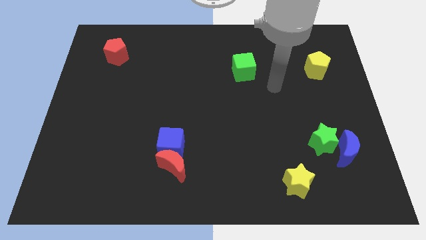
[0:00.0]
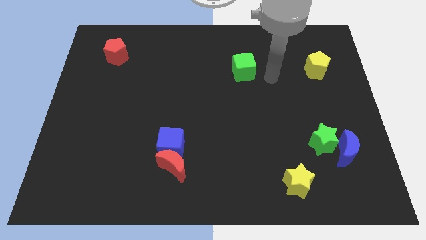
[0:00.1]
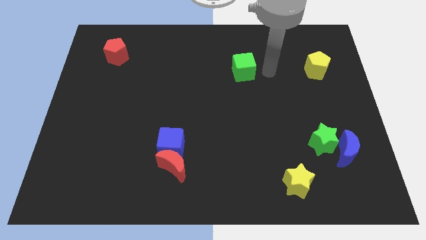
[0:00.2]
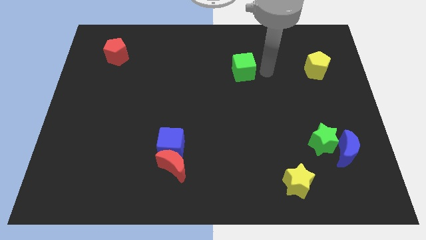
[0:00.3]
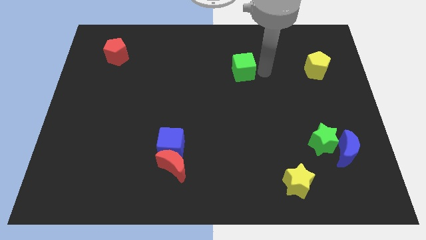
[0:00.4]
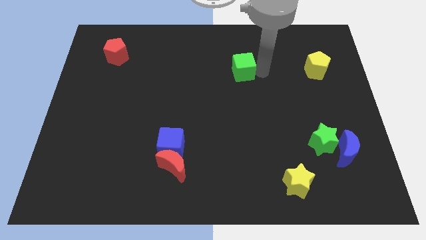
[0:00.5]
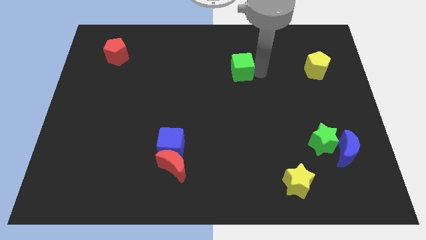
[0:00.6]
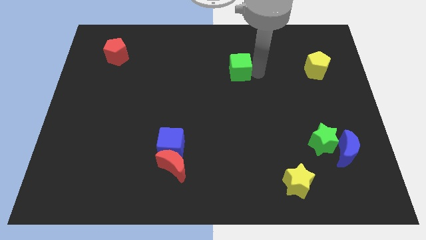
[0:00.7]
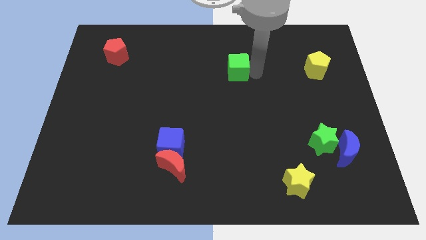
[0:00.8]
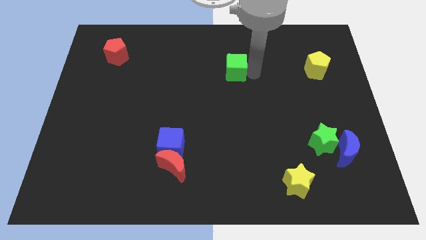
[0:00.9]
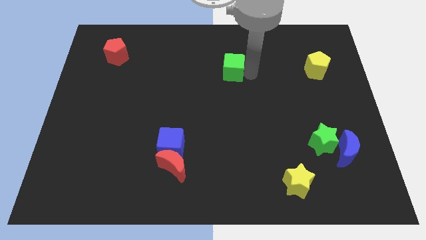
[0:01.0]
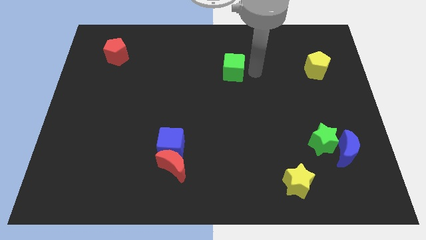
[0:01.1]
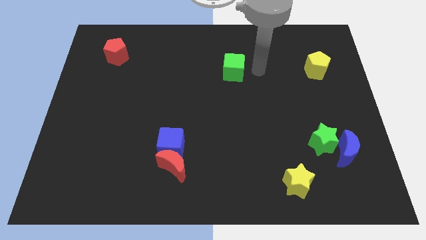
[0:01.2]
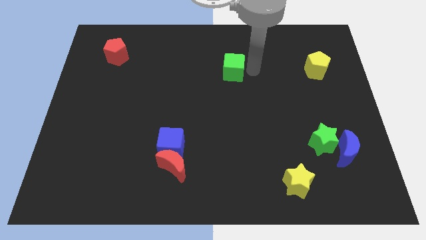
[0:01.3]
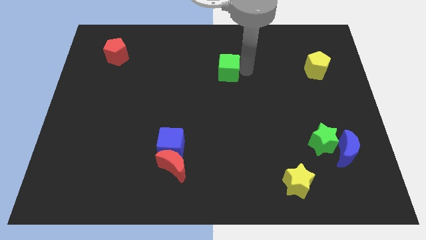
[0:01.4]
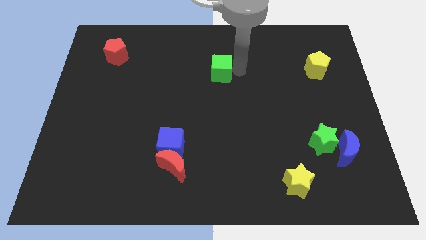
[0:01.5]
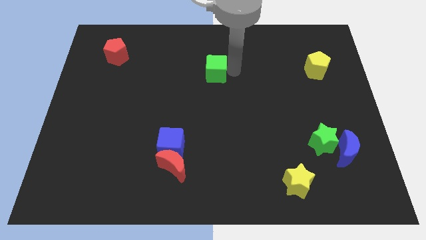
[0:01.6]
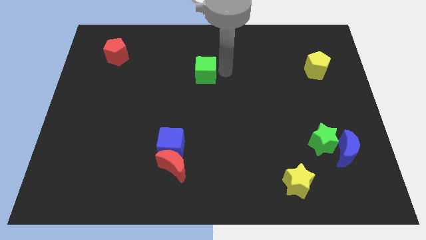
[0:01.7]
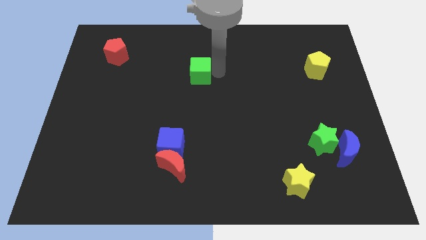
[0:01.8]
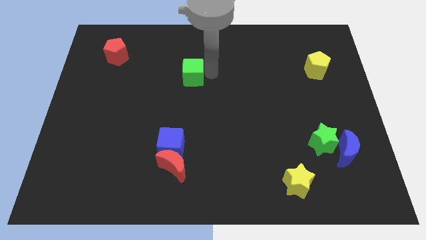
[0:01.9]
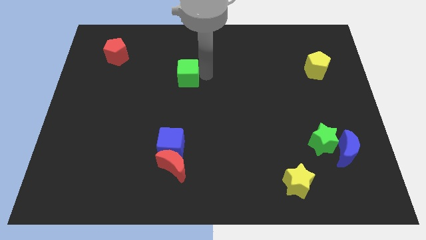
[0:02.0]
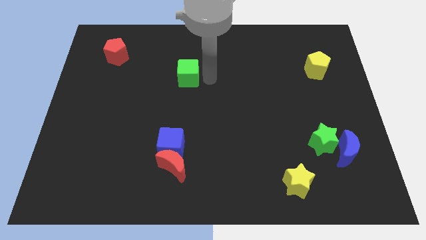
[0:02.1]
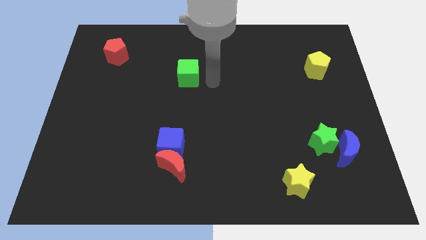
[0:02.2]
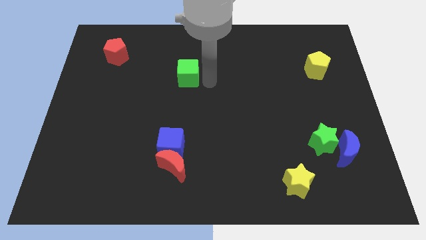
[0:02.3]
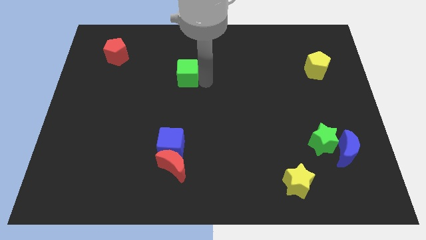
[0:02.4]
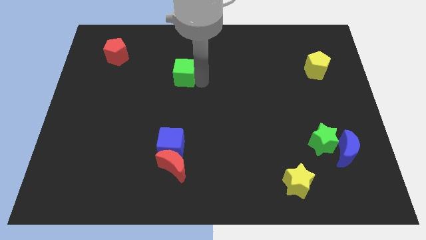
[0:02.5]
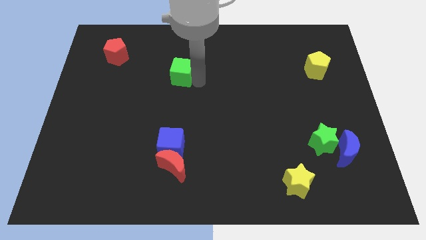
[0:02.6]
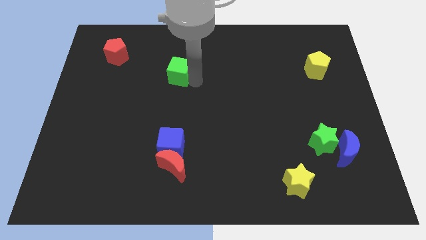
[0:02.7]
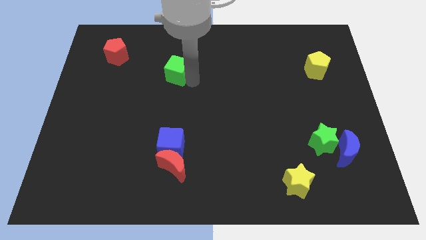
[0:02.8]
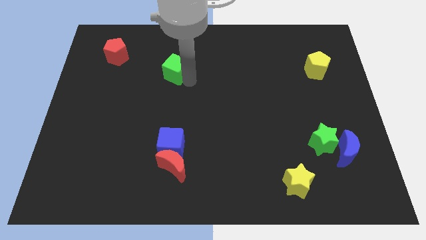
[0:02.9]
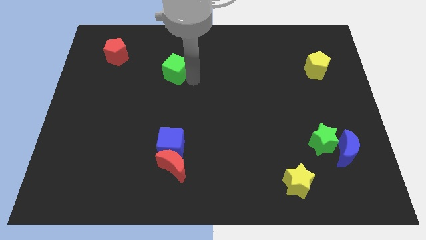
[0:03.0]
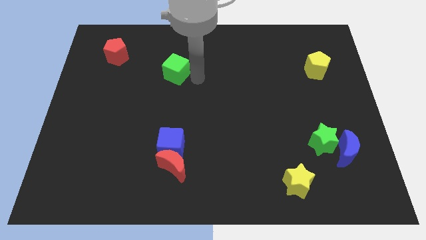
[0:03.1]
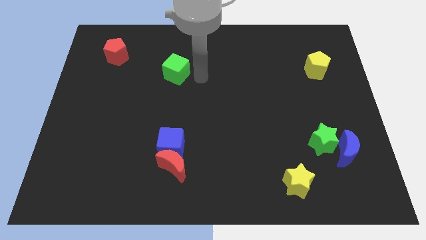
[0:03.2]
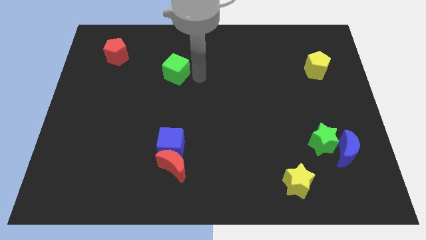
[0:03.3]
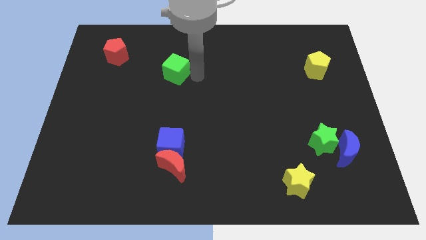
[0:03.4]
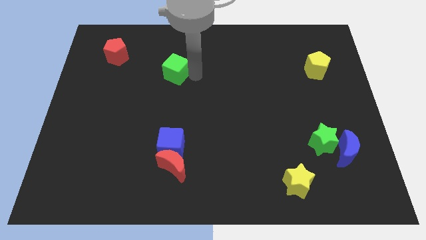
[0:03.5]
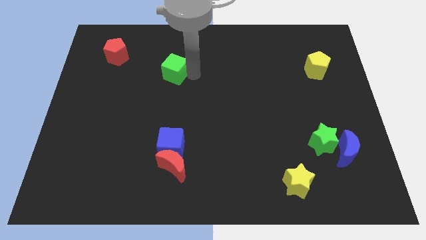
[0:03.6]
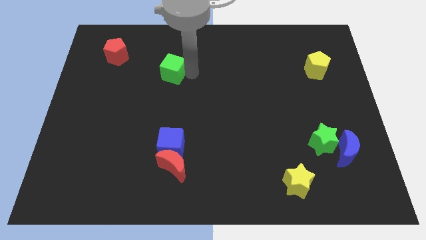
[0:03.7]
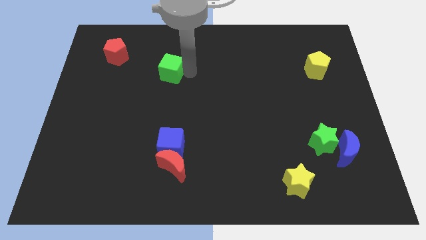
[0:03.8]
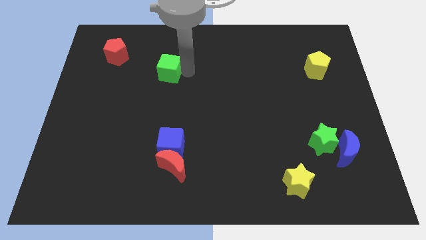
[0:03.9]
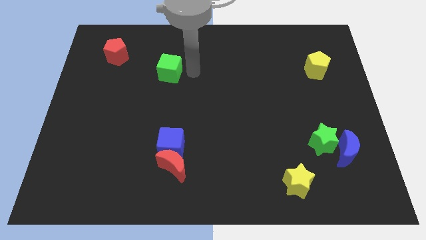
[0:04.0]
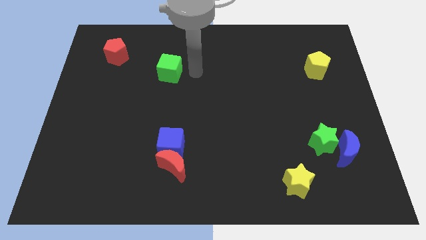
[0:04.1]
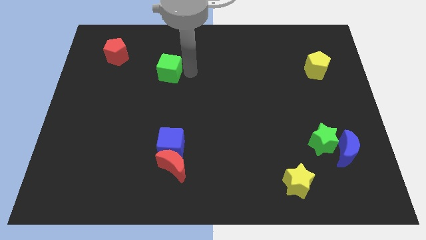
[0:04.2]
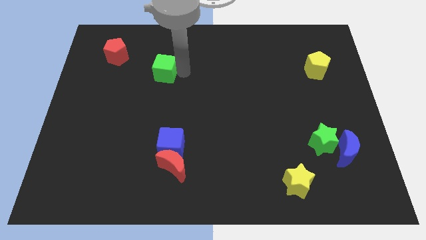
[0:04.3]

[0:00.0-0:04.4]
slide the green cube to the left

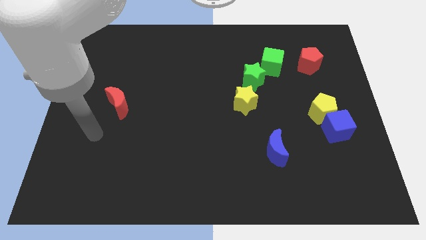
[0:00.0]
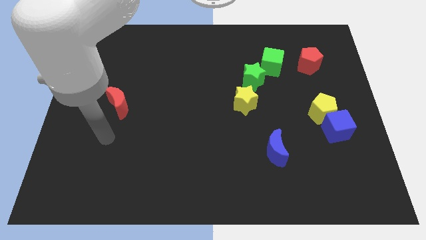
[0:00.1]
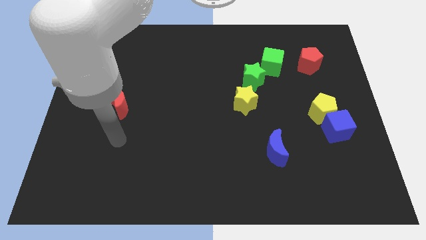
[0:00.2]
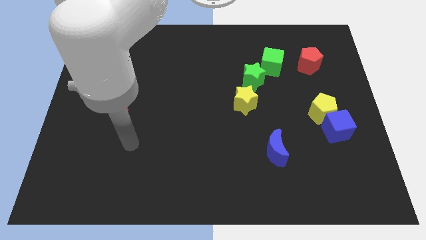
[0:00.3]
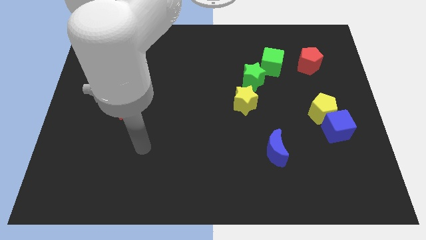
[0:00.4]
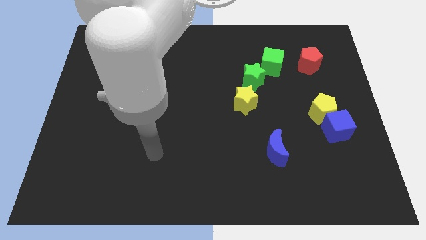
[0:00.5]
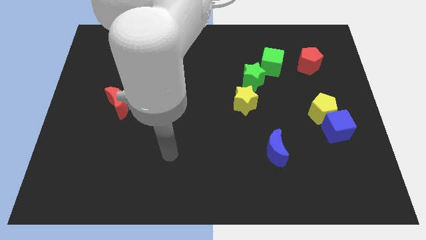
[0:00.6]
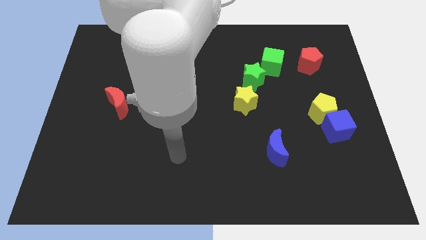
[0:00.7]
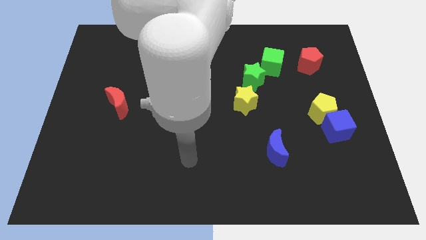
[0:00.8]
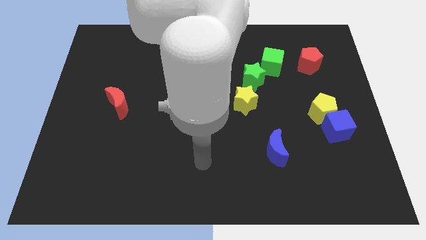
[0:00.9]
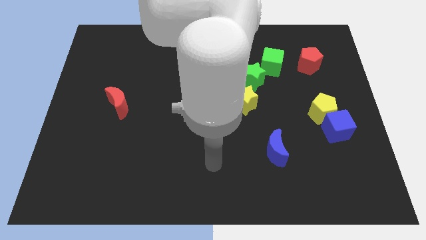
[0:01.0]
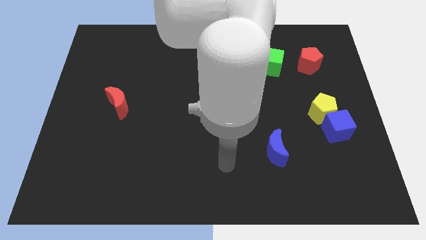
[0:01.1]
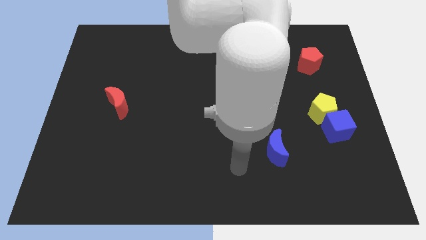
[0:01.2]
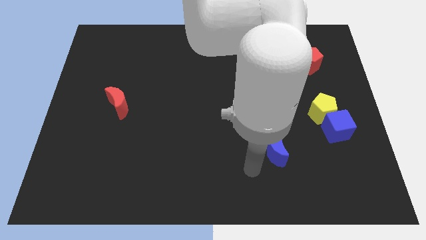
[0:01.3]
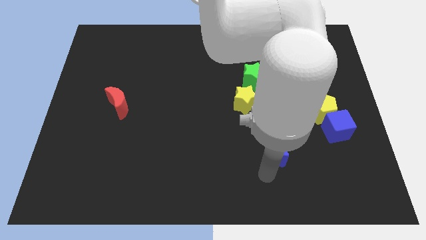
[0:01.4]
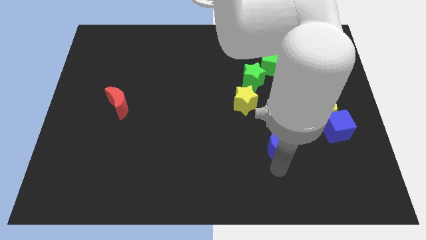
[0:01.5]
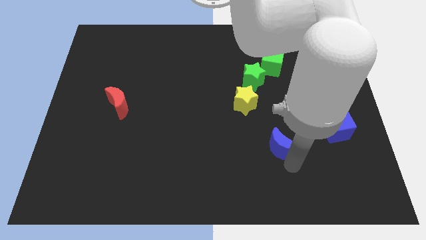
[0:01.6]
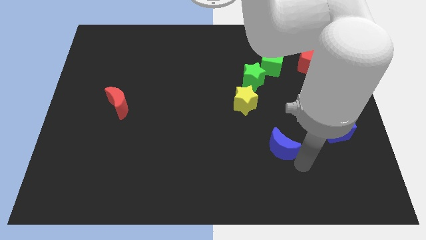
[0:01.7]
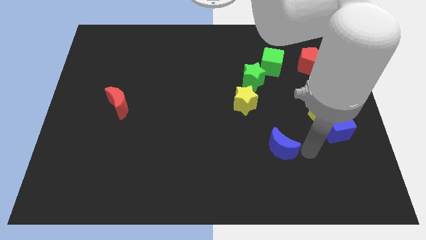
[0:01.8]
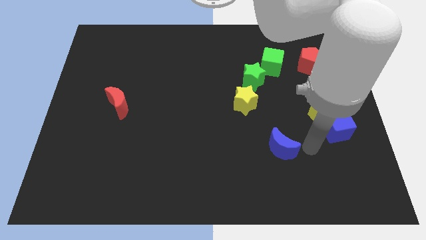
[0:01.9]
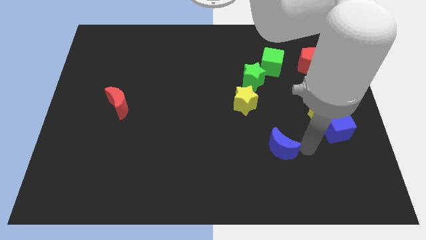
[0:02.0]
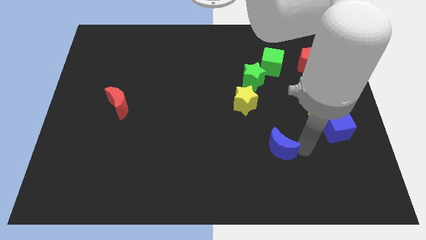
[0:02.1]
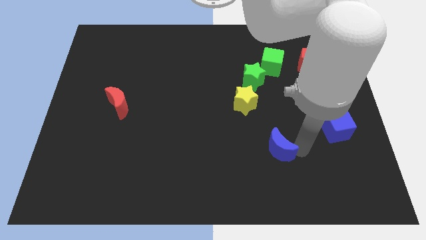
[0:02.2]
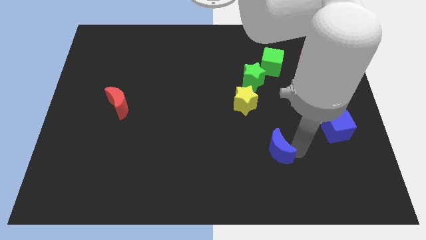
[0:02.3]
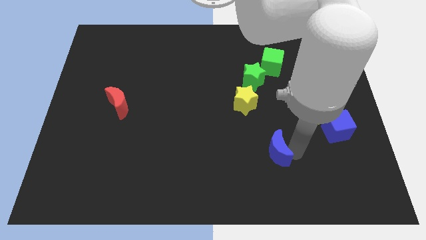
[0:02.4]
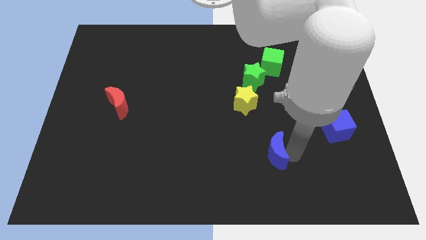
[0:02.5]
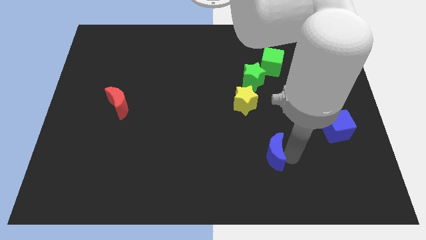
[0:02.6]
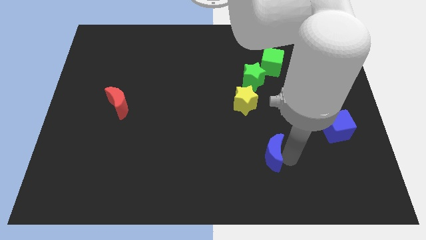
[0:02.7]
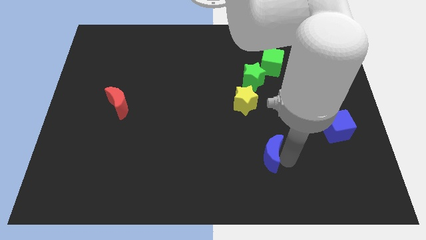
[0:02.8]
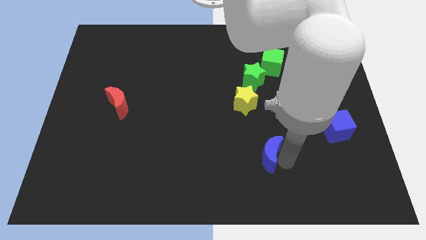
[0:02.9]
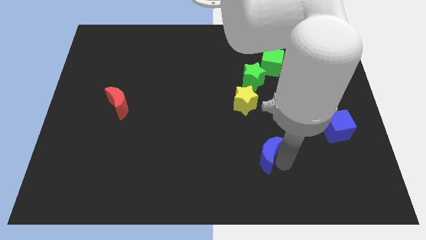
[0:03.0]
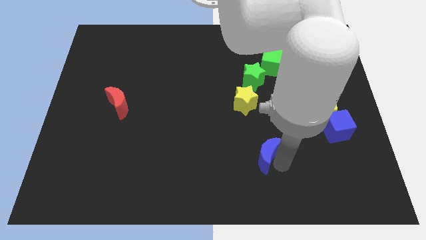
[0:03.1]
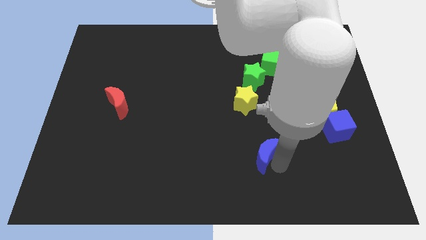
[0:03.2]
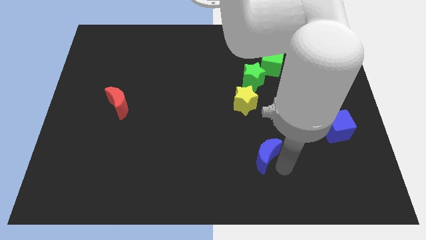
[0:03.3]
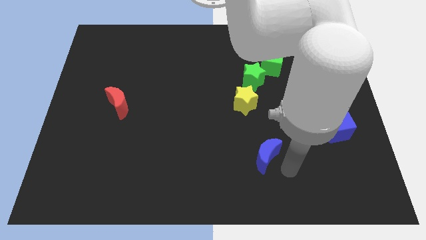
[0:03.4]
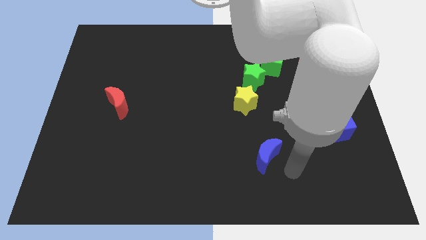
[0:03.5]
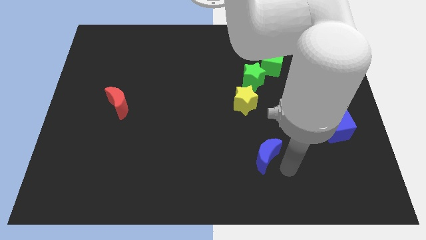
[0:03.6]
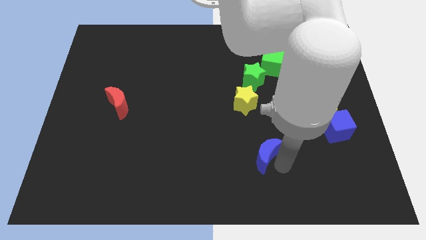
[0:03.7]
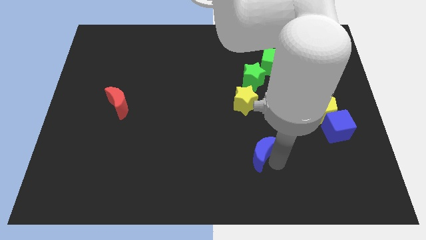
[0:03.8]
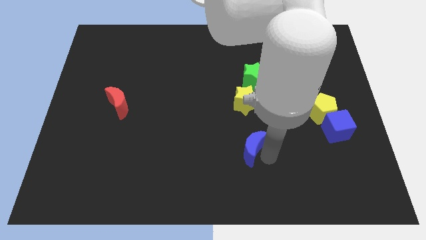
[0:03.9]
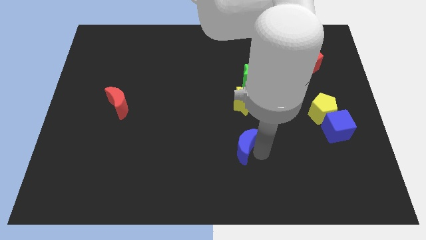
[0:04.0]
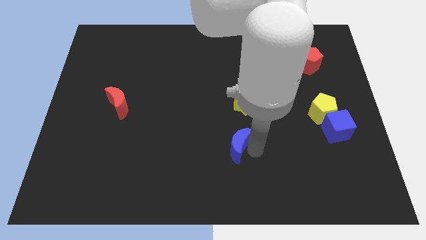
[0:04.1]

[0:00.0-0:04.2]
slide the blue moon a bit left
